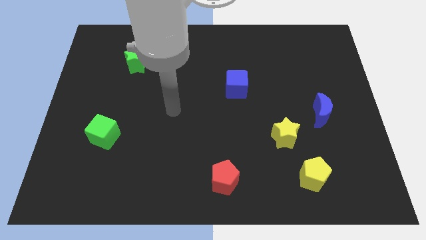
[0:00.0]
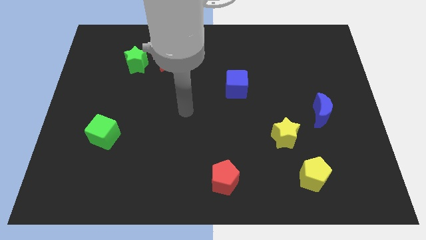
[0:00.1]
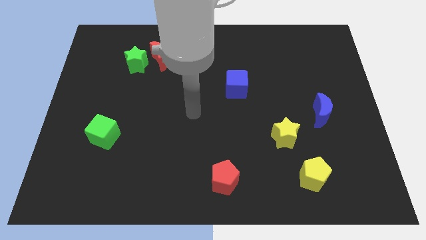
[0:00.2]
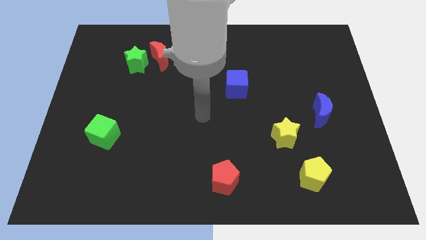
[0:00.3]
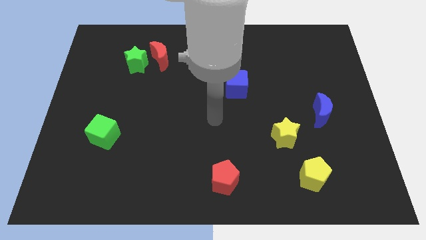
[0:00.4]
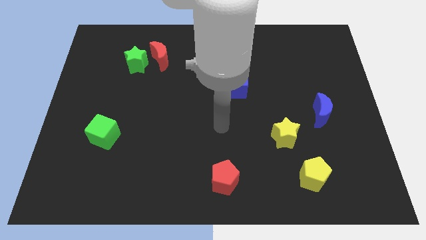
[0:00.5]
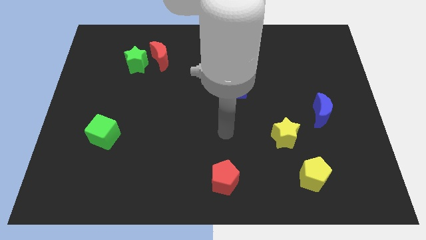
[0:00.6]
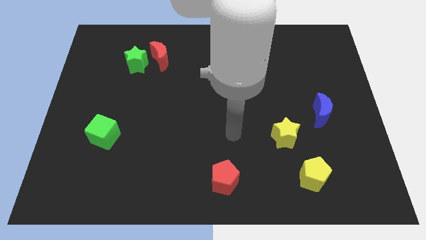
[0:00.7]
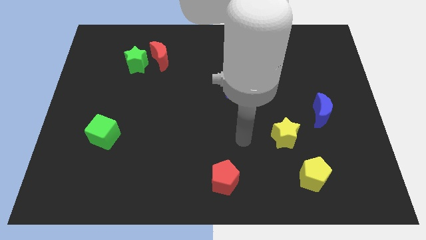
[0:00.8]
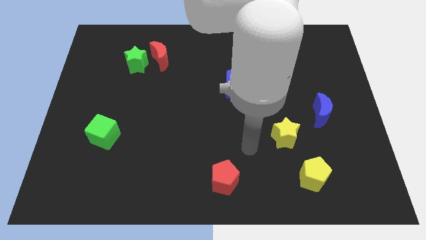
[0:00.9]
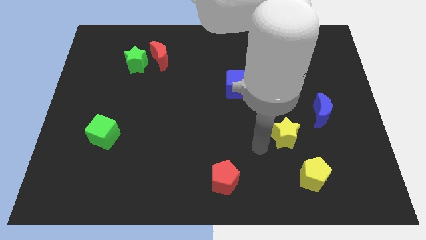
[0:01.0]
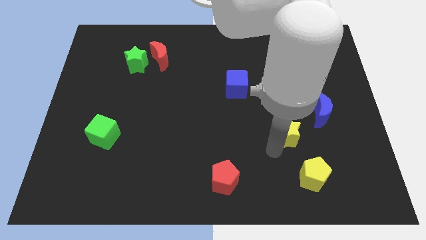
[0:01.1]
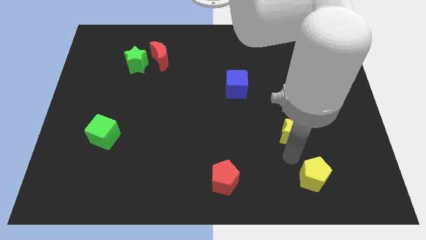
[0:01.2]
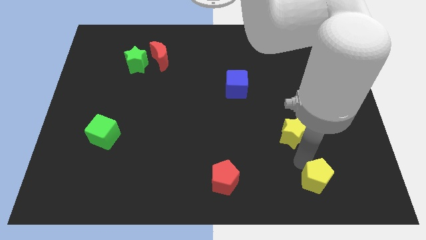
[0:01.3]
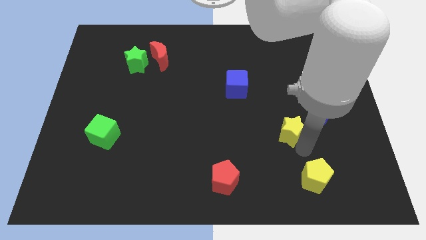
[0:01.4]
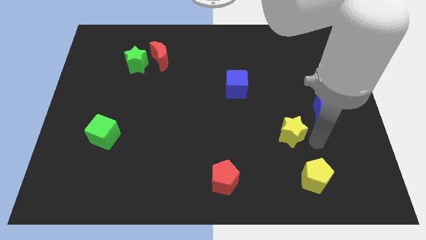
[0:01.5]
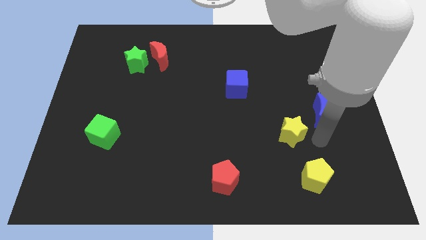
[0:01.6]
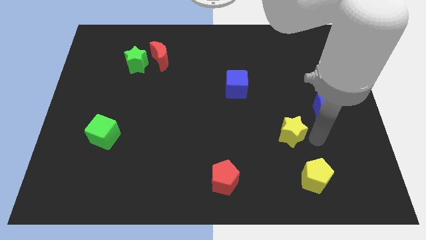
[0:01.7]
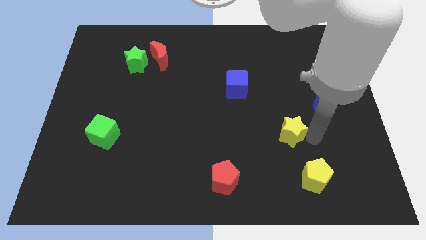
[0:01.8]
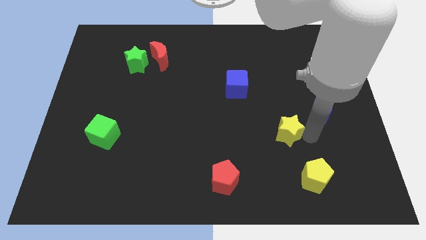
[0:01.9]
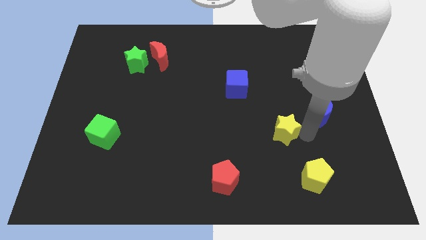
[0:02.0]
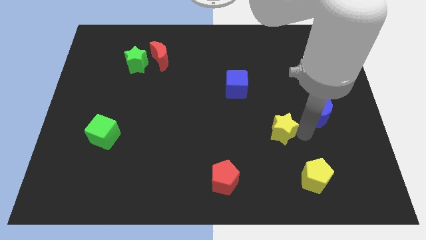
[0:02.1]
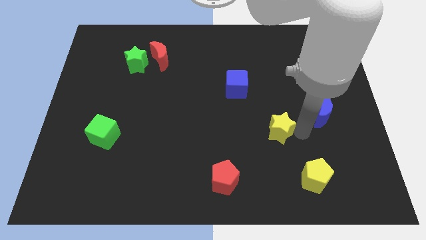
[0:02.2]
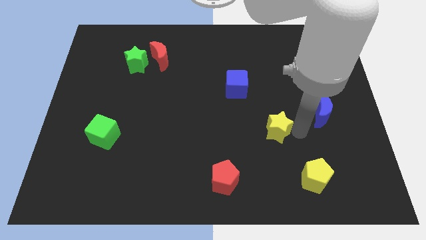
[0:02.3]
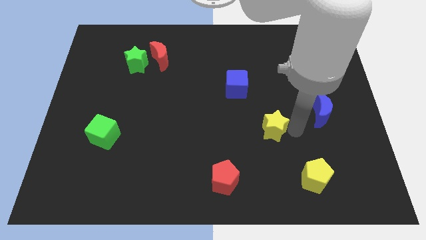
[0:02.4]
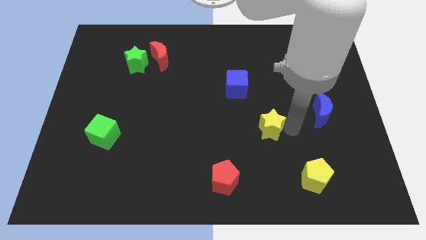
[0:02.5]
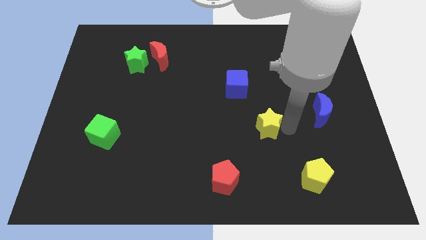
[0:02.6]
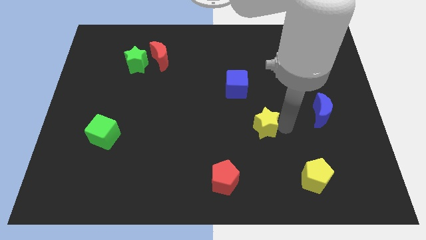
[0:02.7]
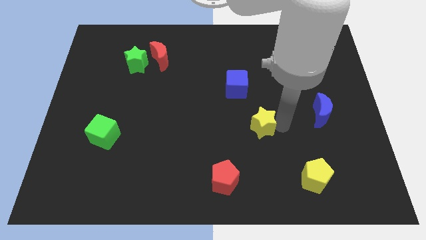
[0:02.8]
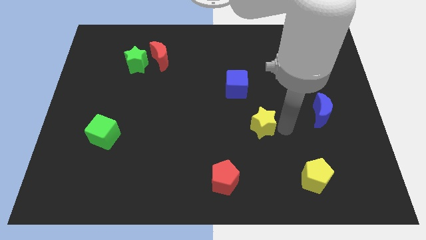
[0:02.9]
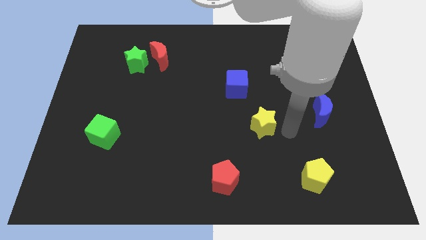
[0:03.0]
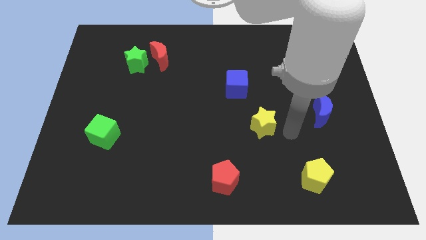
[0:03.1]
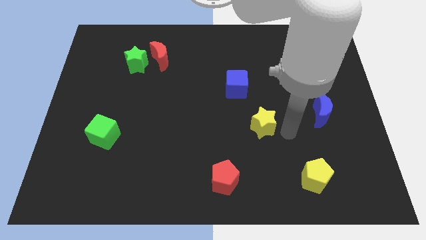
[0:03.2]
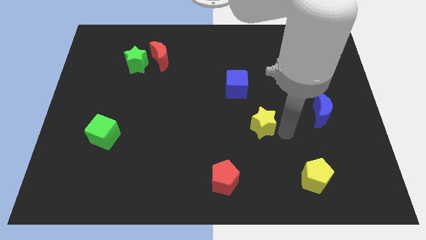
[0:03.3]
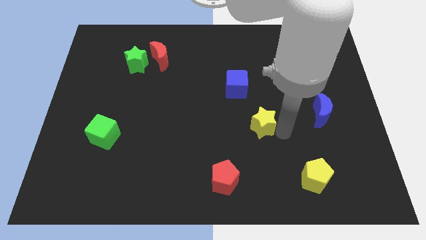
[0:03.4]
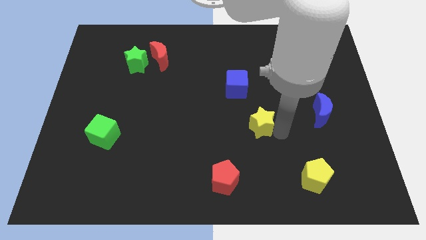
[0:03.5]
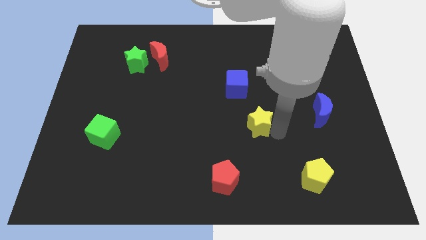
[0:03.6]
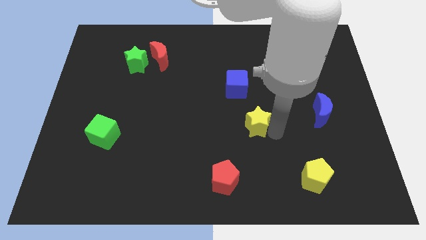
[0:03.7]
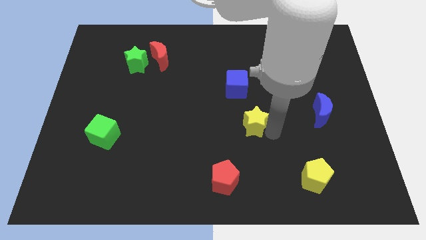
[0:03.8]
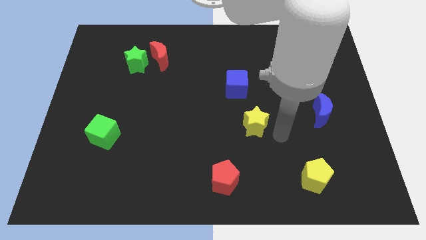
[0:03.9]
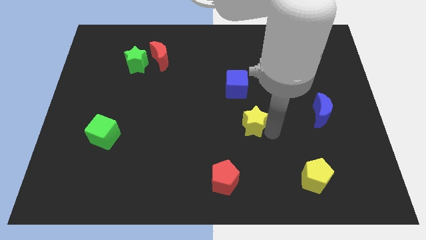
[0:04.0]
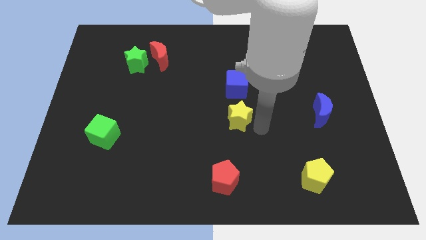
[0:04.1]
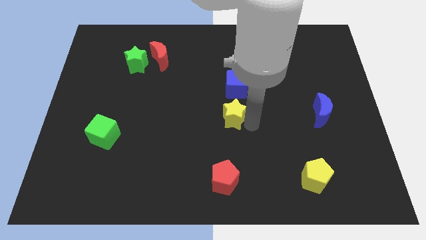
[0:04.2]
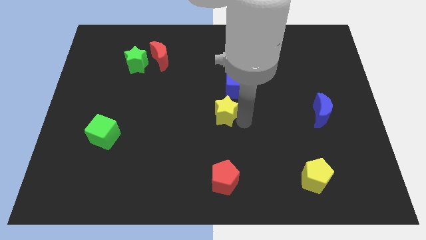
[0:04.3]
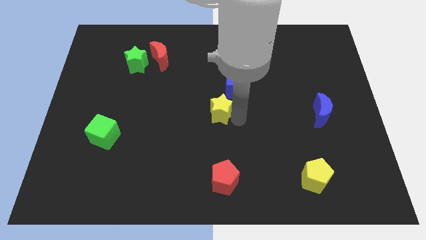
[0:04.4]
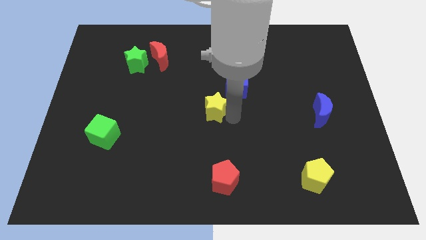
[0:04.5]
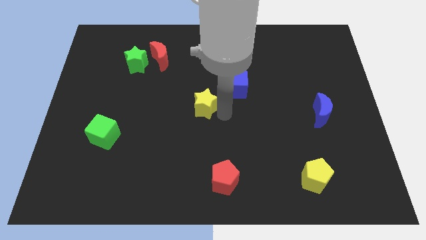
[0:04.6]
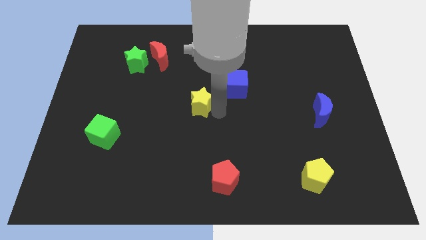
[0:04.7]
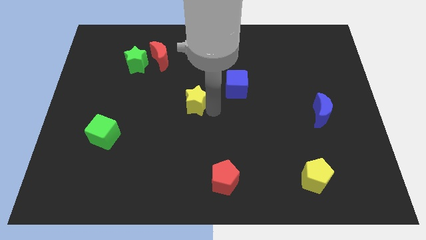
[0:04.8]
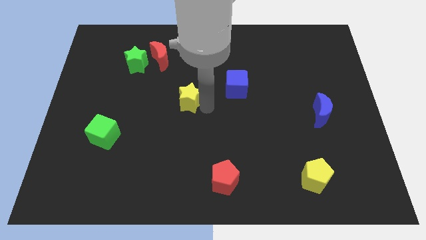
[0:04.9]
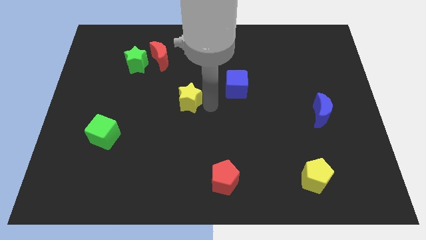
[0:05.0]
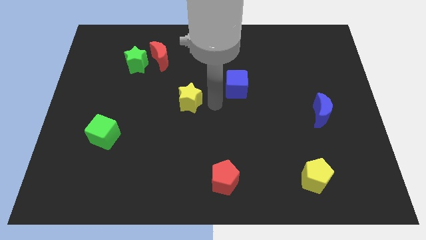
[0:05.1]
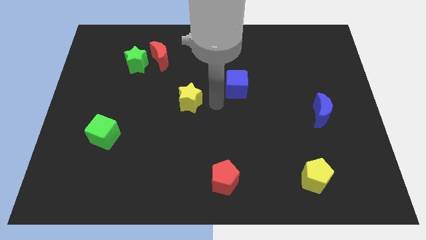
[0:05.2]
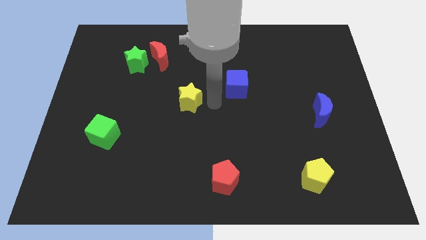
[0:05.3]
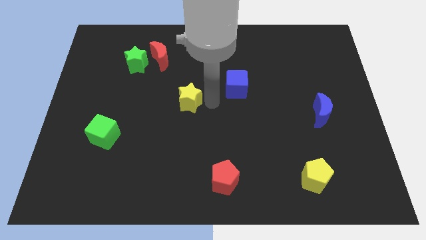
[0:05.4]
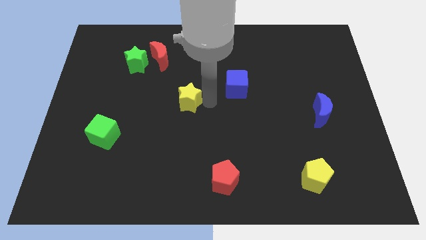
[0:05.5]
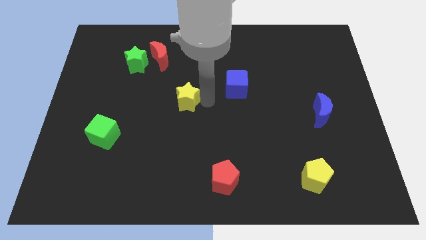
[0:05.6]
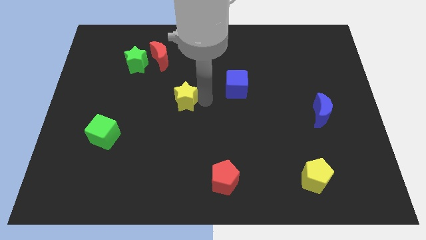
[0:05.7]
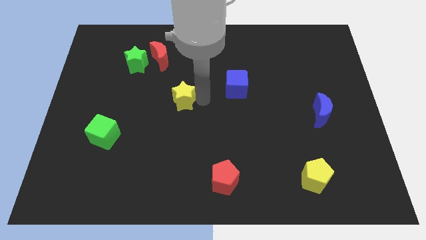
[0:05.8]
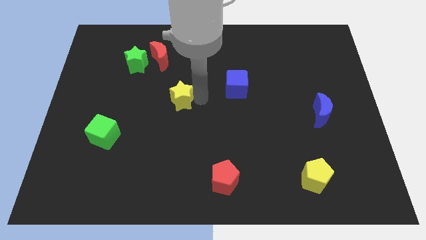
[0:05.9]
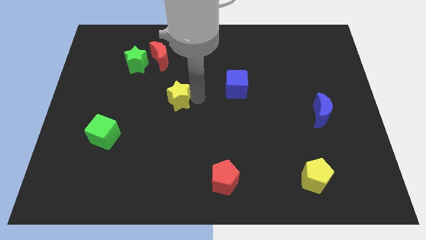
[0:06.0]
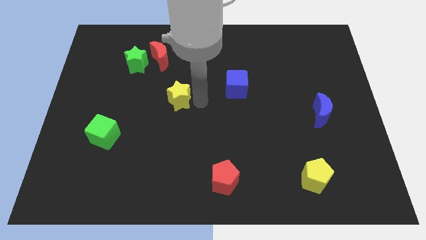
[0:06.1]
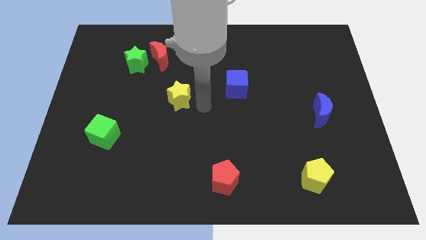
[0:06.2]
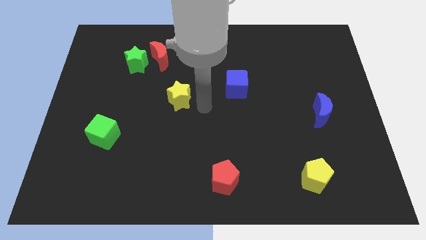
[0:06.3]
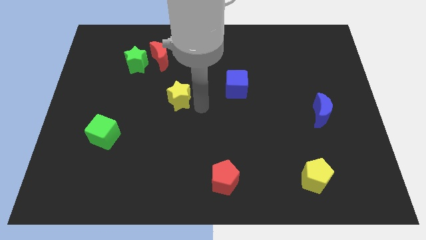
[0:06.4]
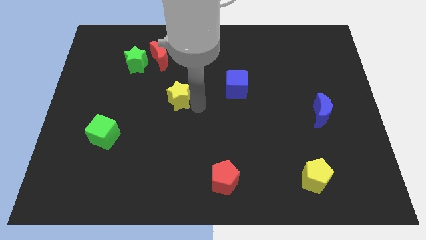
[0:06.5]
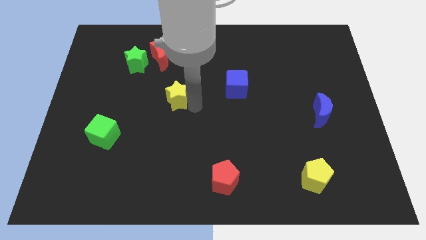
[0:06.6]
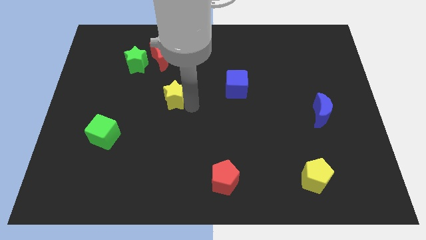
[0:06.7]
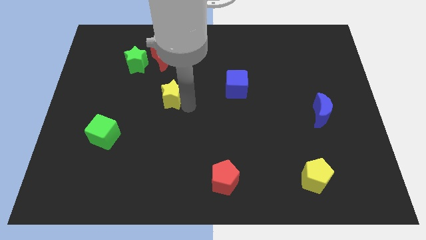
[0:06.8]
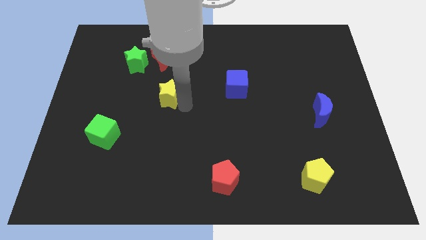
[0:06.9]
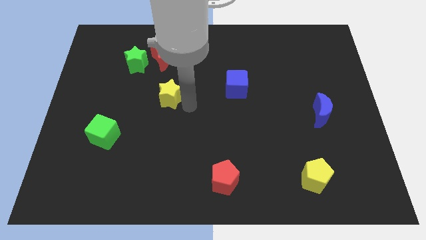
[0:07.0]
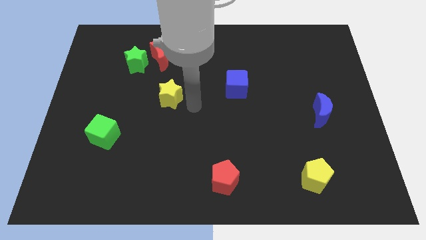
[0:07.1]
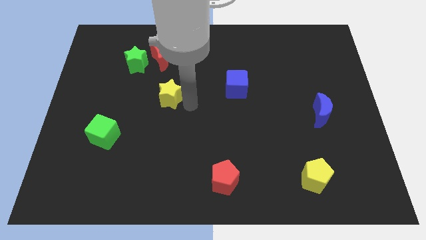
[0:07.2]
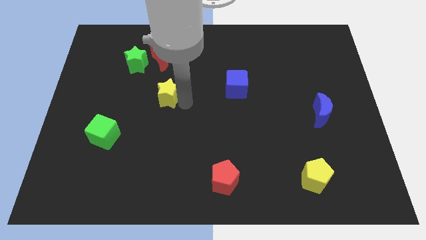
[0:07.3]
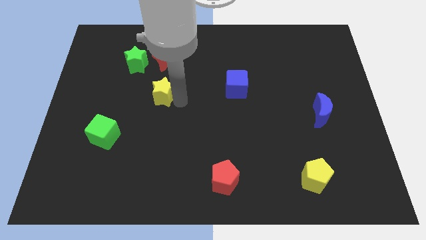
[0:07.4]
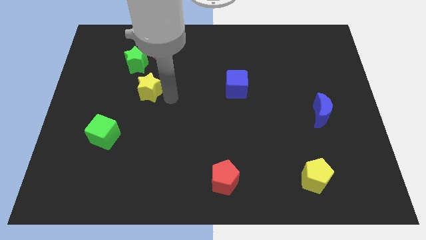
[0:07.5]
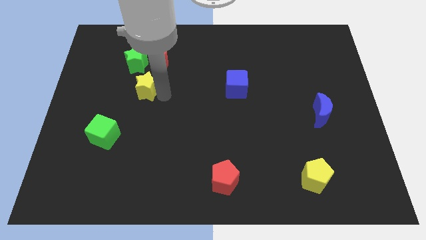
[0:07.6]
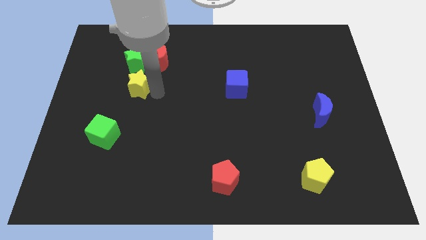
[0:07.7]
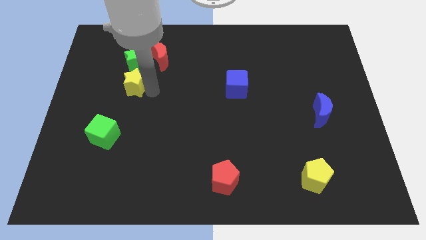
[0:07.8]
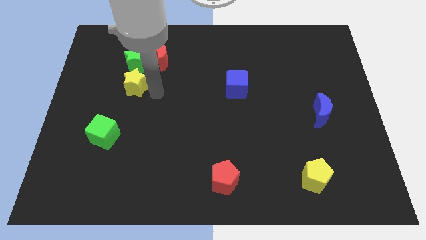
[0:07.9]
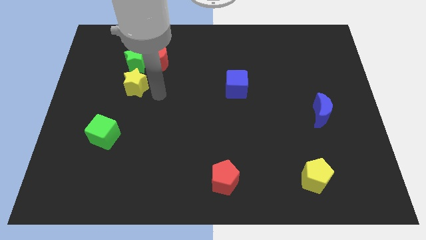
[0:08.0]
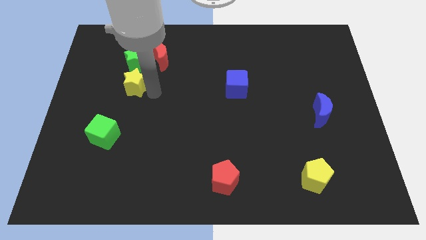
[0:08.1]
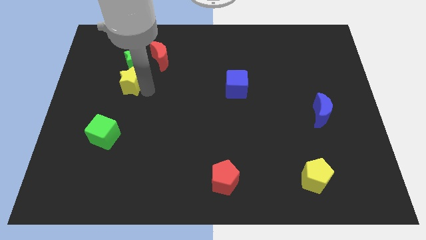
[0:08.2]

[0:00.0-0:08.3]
slide the yellow star to the bottom left of the green star
